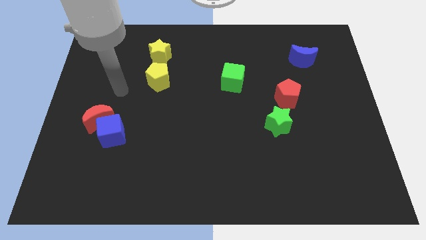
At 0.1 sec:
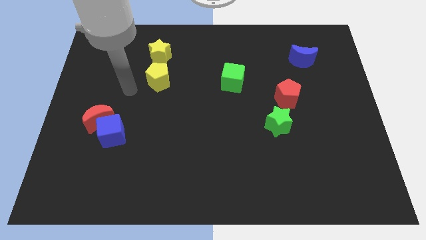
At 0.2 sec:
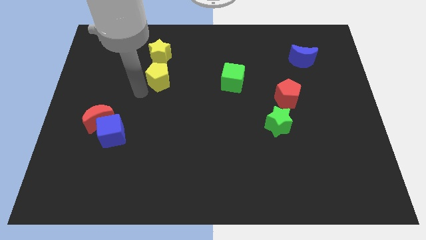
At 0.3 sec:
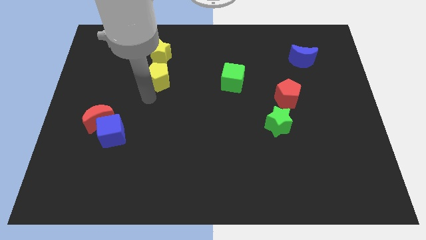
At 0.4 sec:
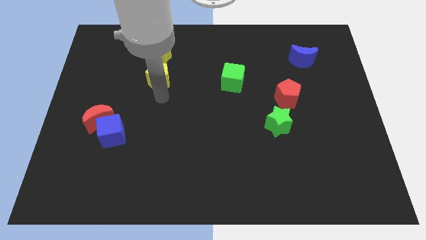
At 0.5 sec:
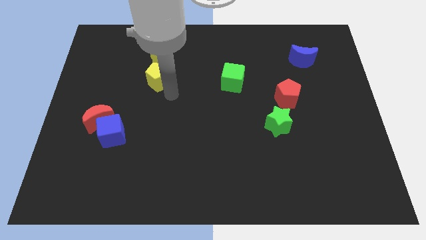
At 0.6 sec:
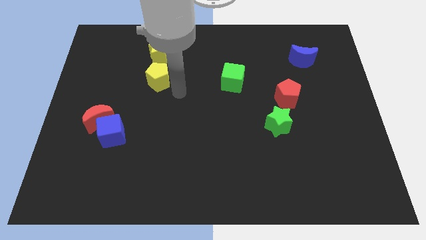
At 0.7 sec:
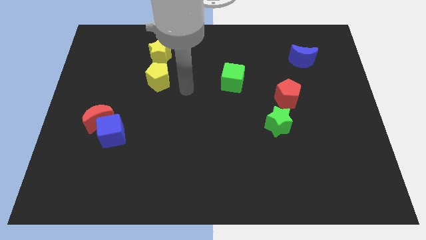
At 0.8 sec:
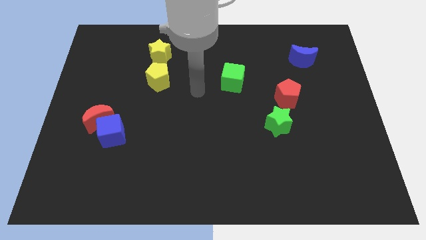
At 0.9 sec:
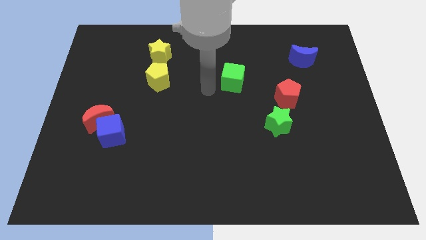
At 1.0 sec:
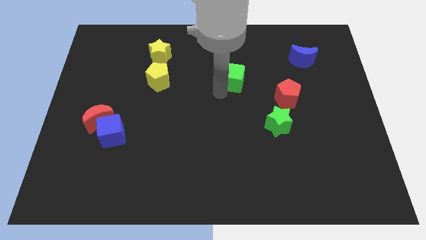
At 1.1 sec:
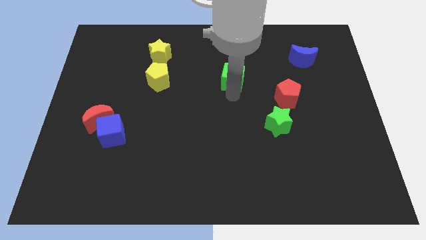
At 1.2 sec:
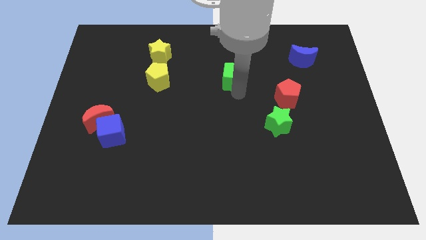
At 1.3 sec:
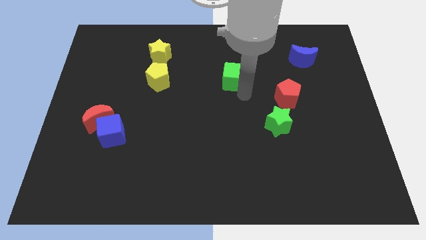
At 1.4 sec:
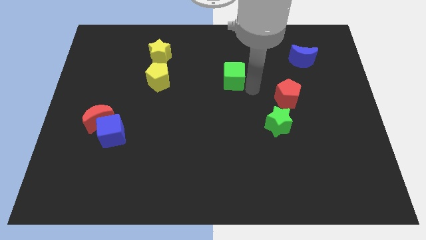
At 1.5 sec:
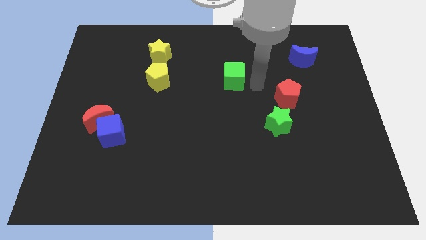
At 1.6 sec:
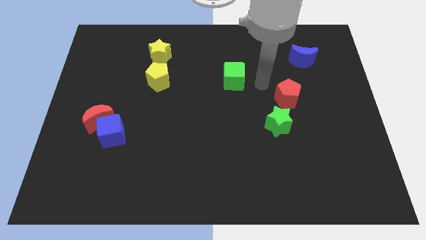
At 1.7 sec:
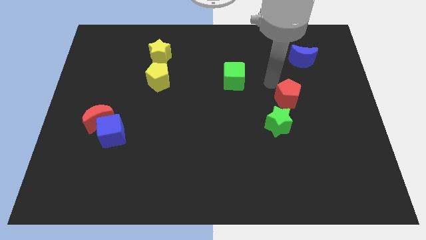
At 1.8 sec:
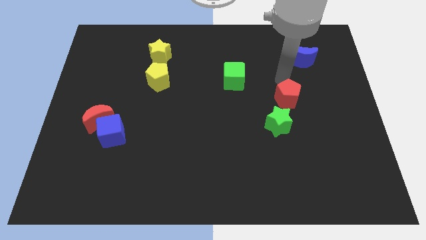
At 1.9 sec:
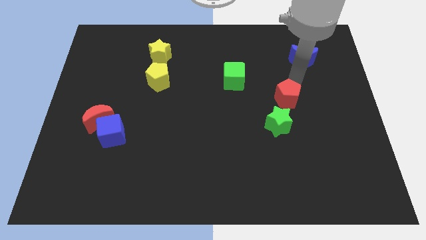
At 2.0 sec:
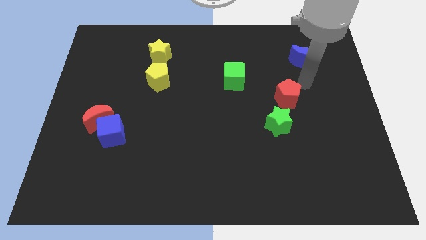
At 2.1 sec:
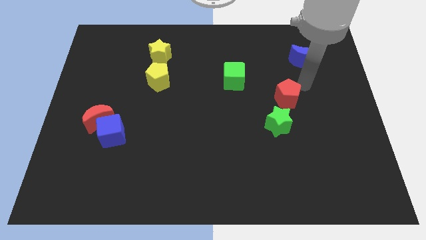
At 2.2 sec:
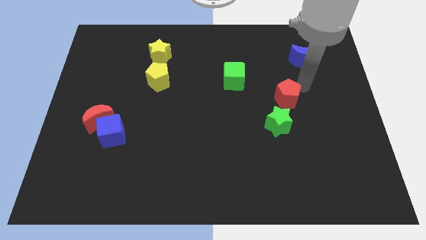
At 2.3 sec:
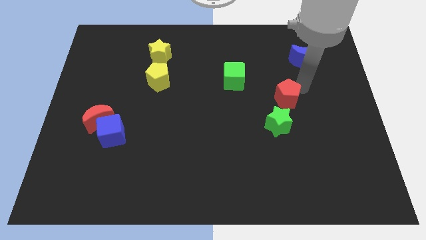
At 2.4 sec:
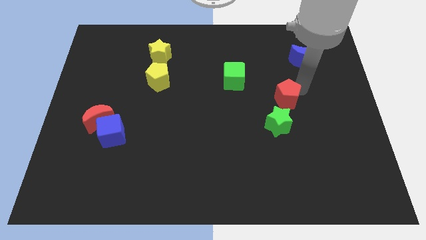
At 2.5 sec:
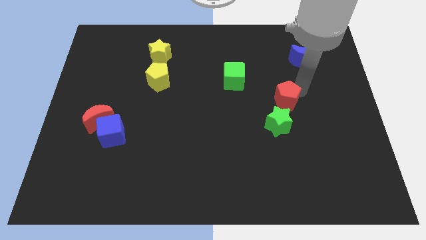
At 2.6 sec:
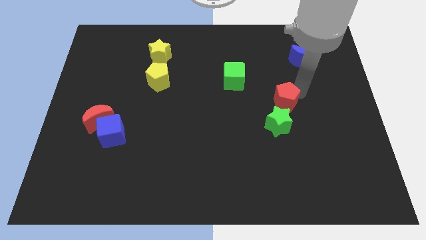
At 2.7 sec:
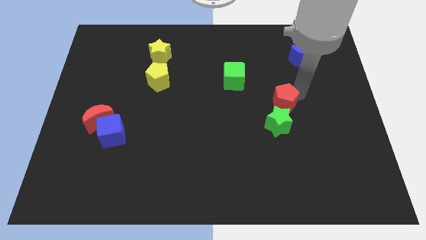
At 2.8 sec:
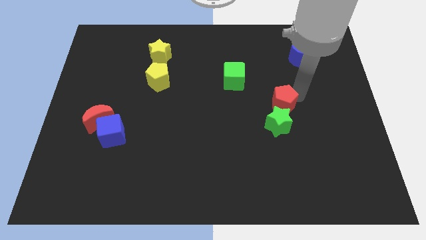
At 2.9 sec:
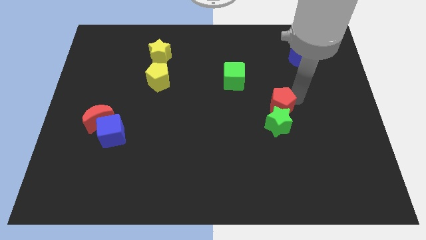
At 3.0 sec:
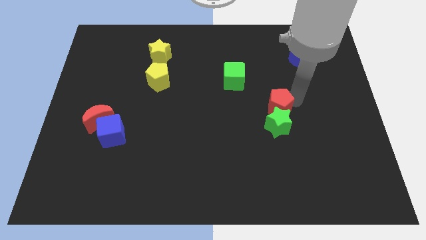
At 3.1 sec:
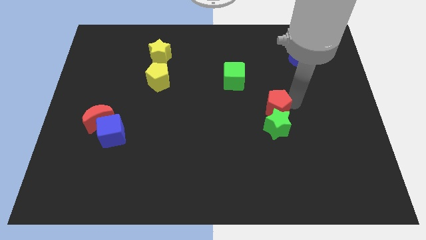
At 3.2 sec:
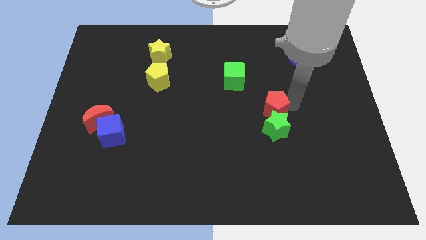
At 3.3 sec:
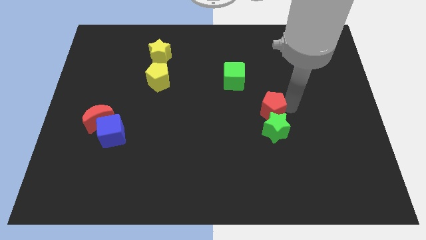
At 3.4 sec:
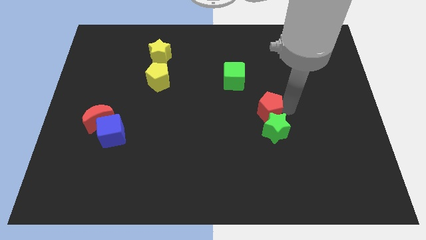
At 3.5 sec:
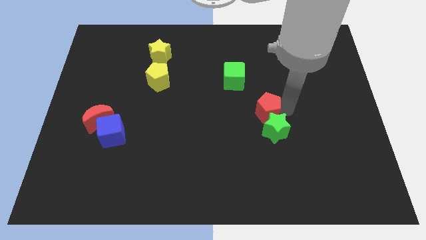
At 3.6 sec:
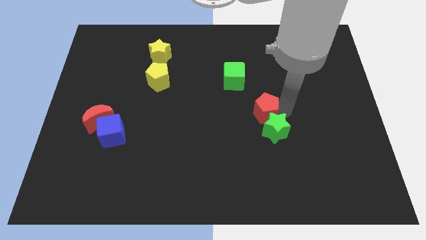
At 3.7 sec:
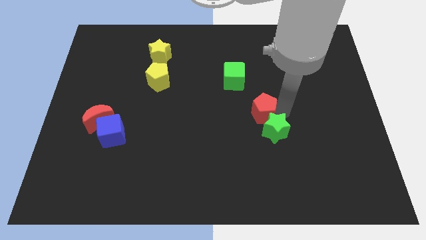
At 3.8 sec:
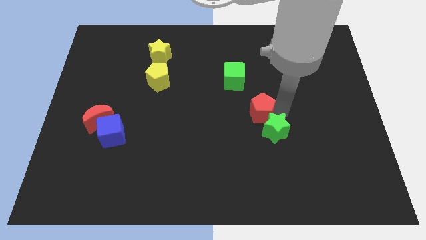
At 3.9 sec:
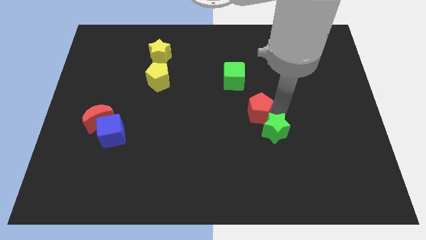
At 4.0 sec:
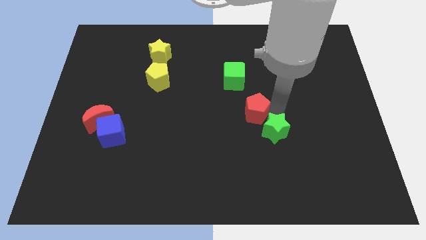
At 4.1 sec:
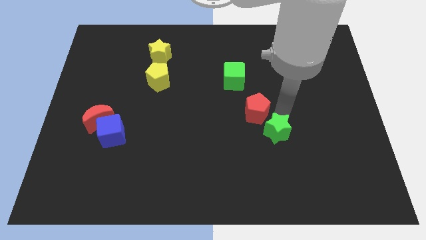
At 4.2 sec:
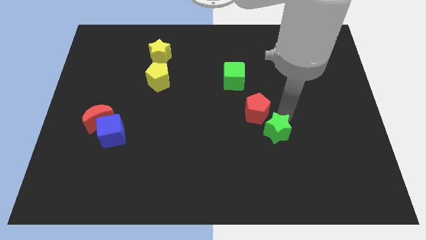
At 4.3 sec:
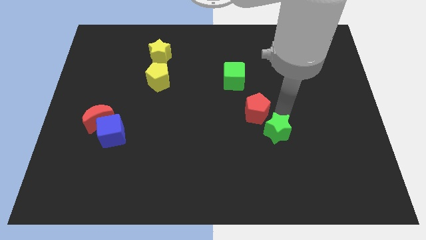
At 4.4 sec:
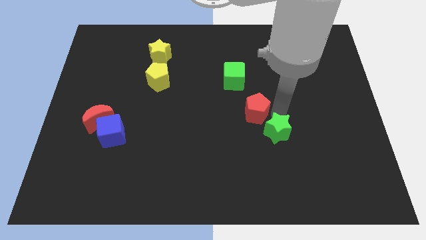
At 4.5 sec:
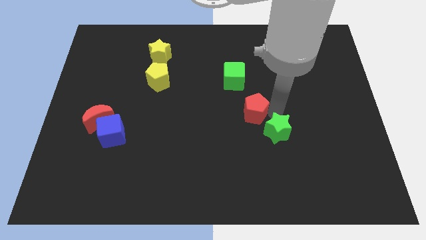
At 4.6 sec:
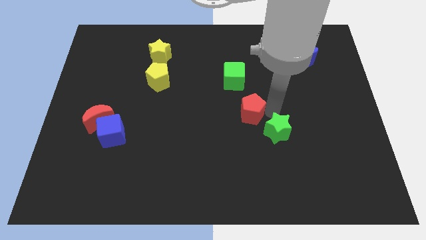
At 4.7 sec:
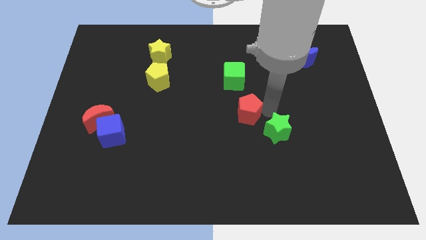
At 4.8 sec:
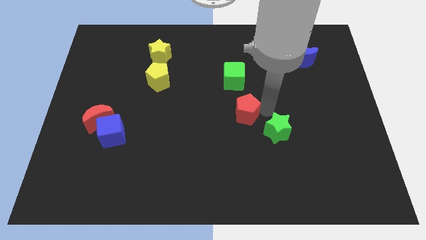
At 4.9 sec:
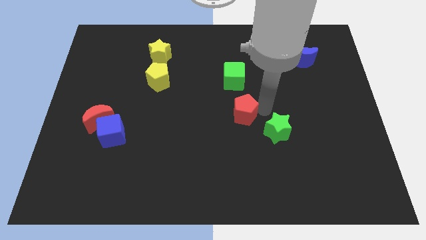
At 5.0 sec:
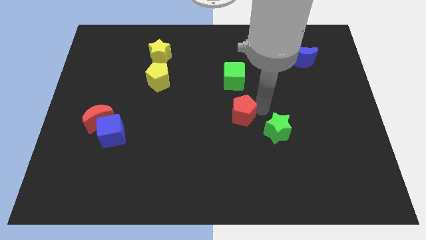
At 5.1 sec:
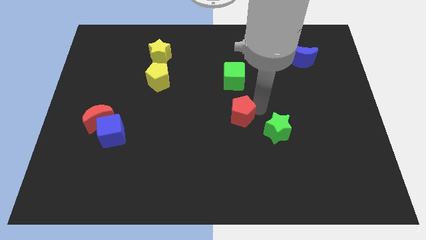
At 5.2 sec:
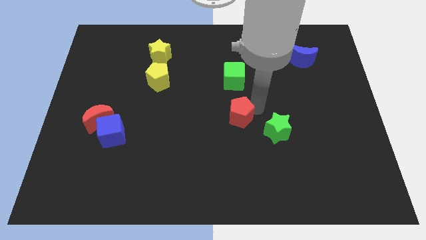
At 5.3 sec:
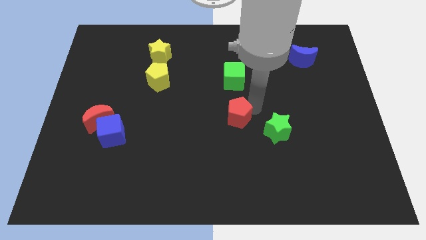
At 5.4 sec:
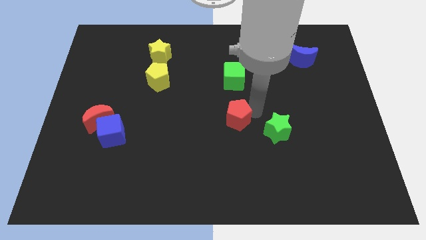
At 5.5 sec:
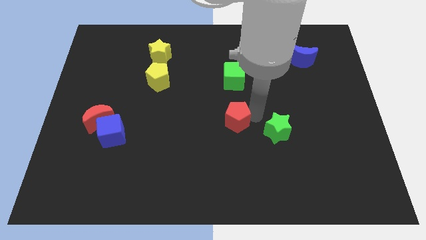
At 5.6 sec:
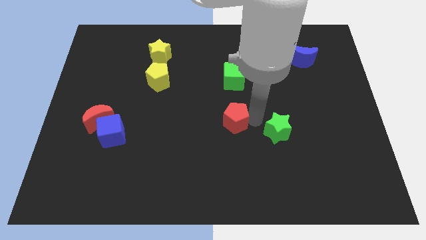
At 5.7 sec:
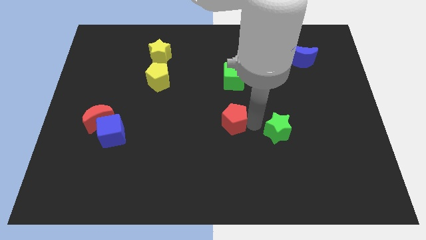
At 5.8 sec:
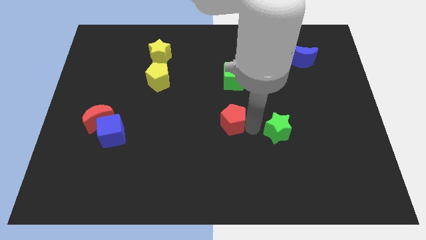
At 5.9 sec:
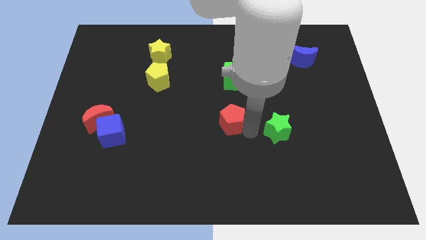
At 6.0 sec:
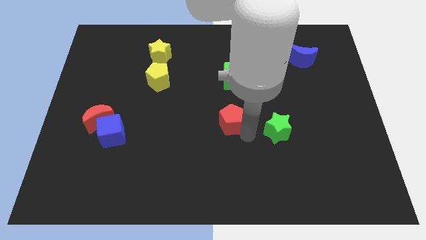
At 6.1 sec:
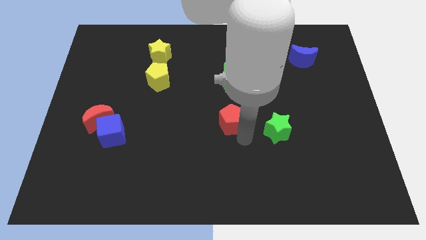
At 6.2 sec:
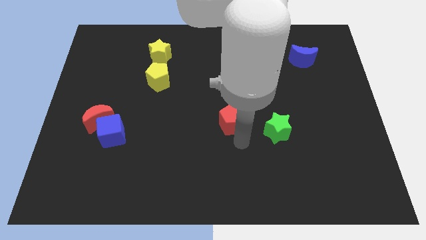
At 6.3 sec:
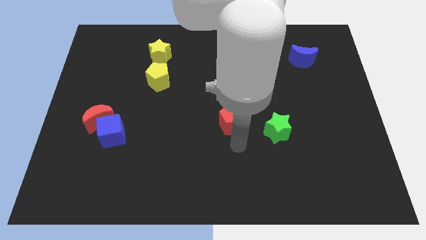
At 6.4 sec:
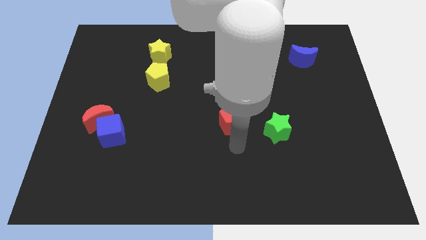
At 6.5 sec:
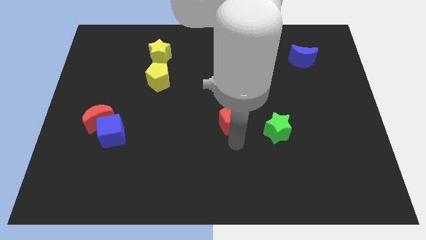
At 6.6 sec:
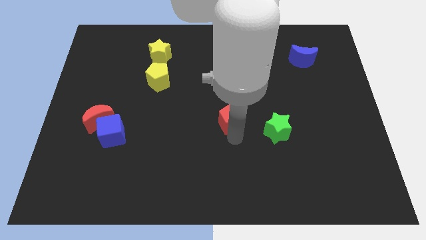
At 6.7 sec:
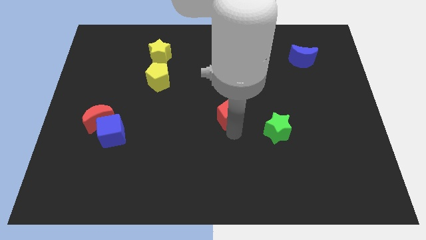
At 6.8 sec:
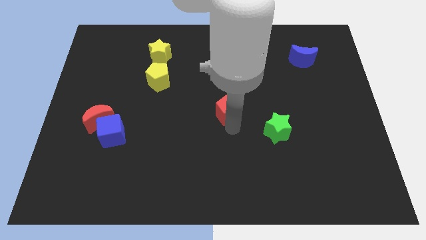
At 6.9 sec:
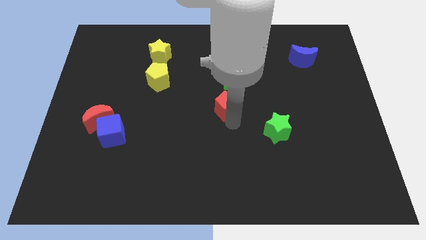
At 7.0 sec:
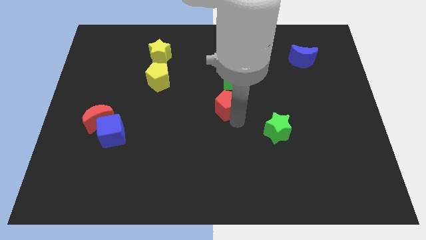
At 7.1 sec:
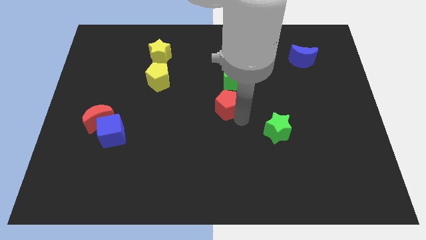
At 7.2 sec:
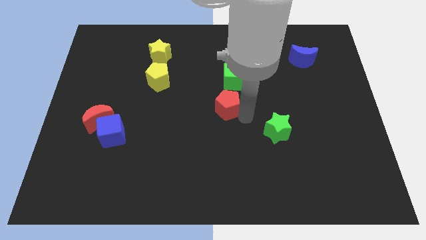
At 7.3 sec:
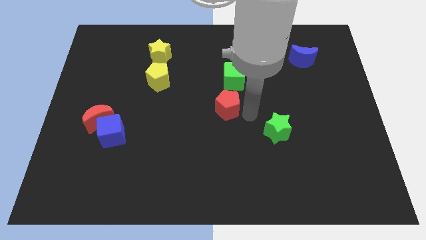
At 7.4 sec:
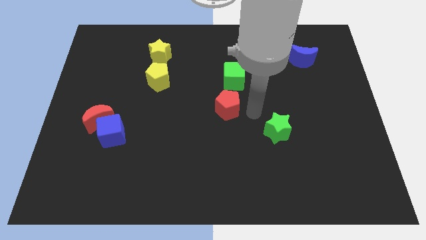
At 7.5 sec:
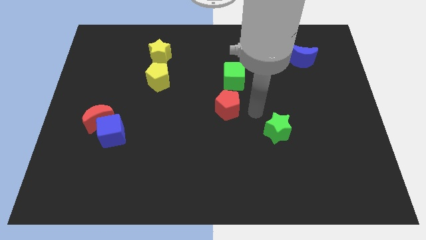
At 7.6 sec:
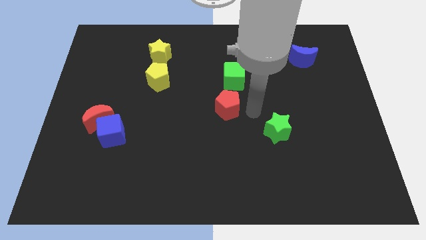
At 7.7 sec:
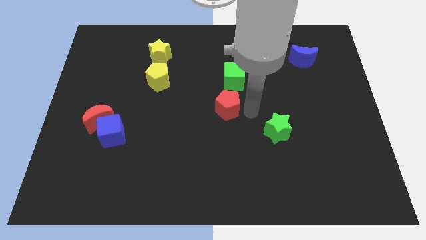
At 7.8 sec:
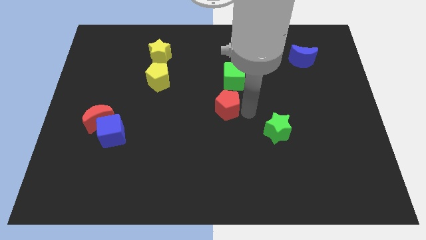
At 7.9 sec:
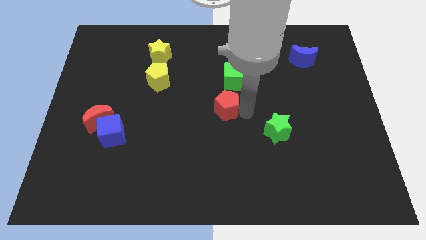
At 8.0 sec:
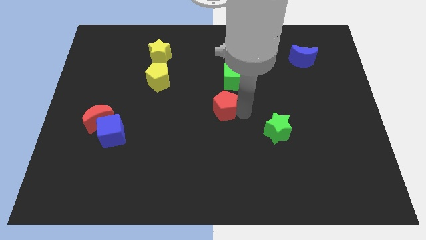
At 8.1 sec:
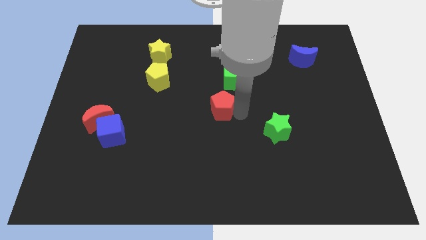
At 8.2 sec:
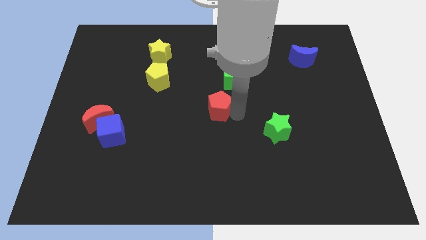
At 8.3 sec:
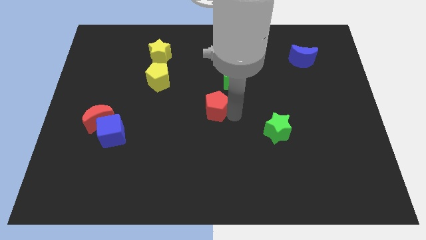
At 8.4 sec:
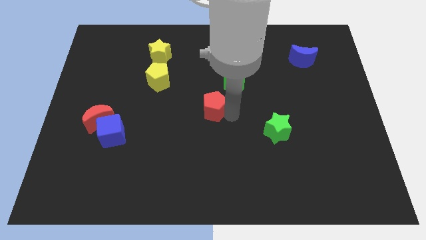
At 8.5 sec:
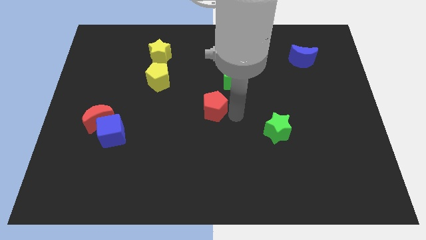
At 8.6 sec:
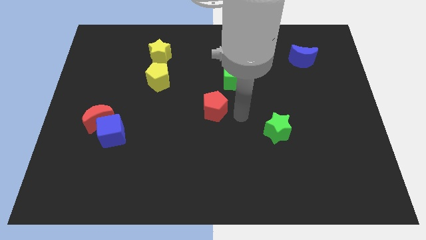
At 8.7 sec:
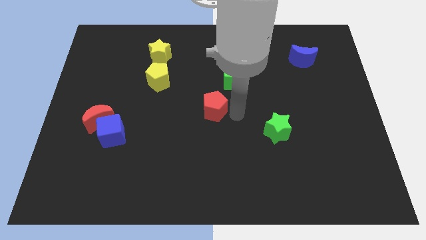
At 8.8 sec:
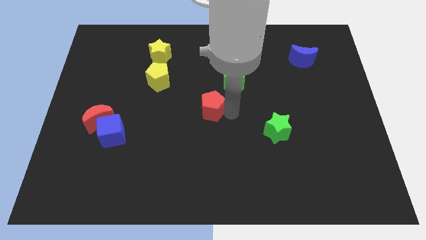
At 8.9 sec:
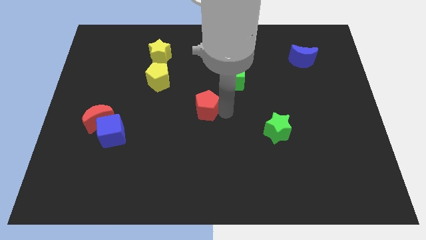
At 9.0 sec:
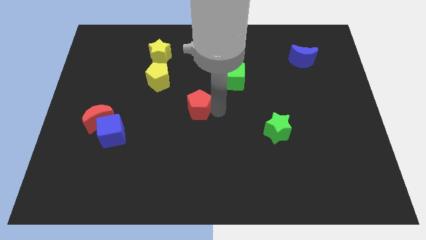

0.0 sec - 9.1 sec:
push the red pentagon to the left
